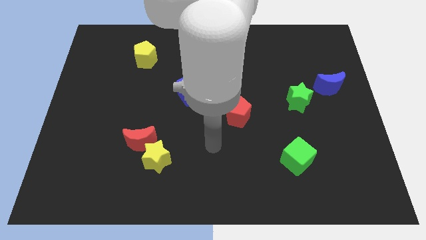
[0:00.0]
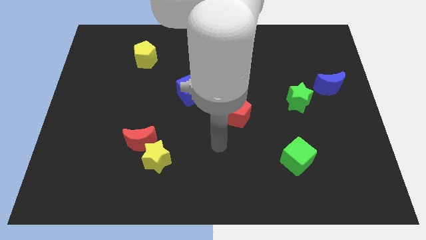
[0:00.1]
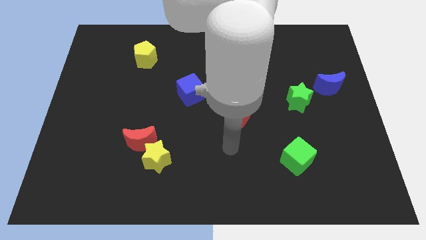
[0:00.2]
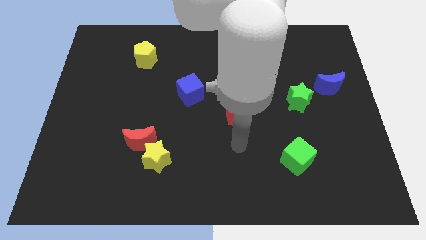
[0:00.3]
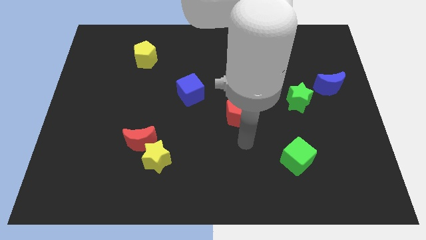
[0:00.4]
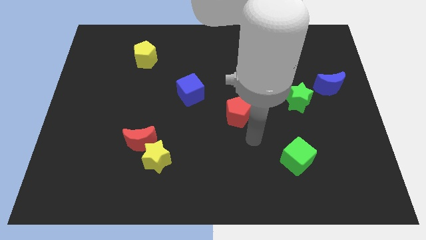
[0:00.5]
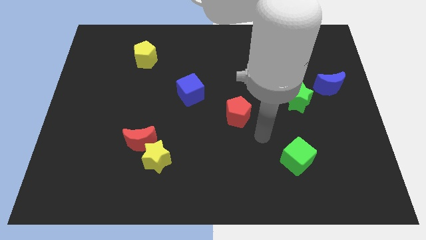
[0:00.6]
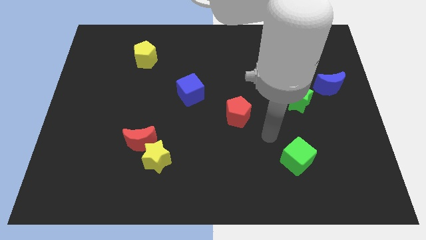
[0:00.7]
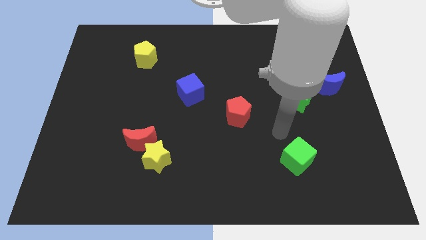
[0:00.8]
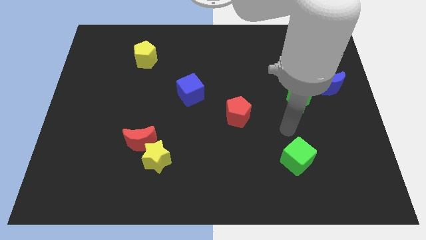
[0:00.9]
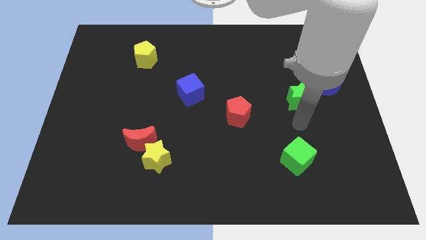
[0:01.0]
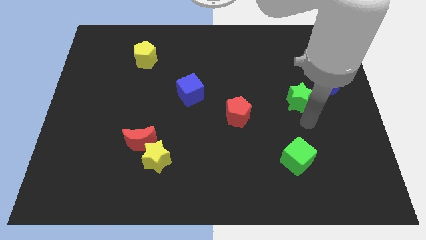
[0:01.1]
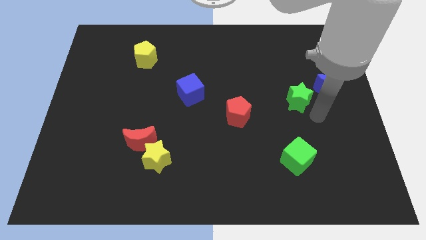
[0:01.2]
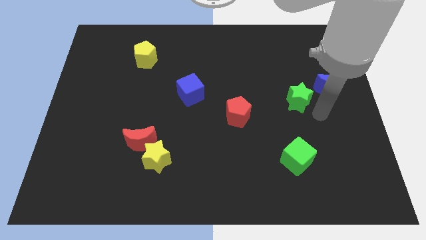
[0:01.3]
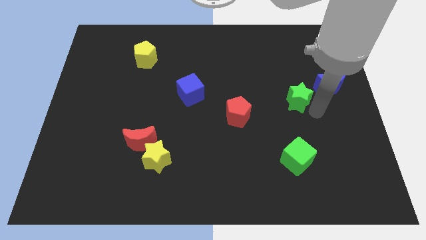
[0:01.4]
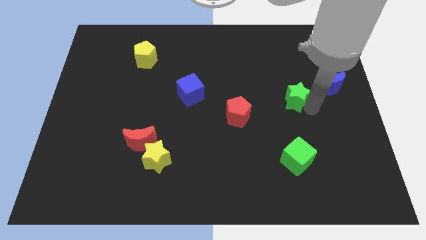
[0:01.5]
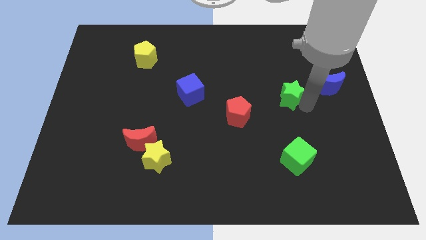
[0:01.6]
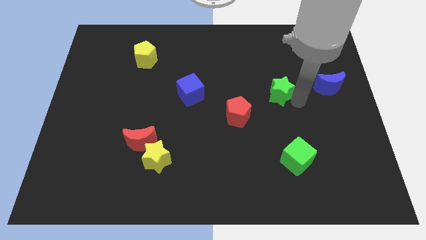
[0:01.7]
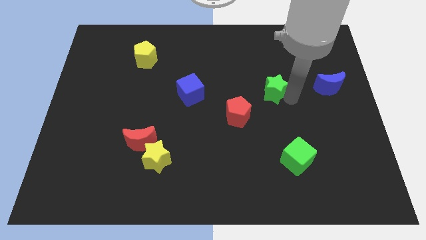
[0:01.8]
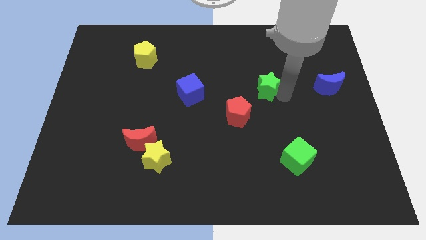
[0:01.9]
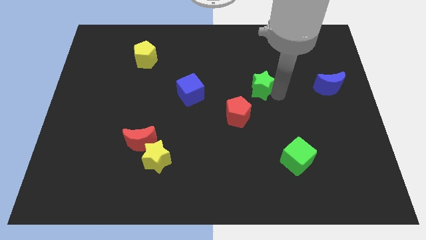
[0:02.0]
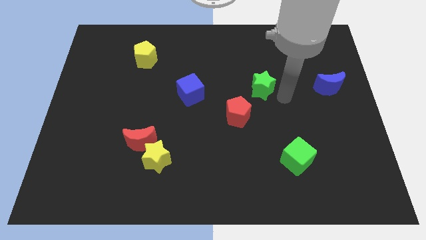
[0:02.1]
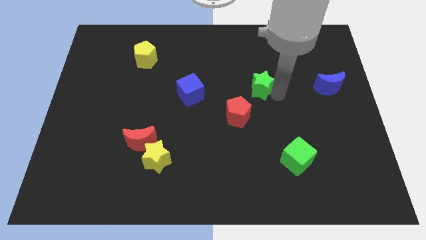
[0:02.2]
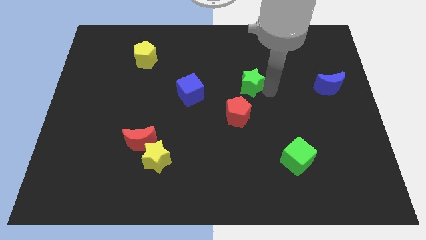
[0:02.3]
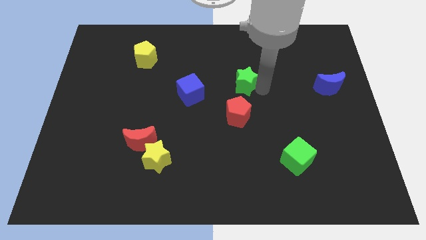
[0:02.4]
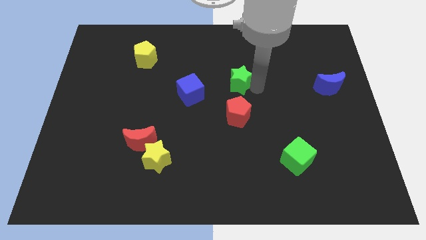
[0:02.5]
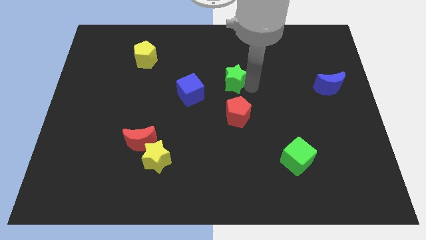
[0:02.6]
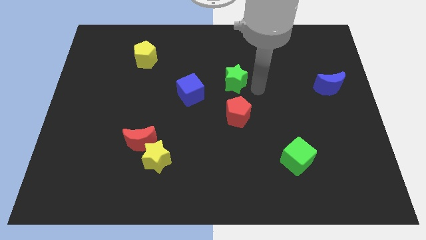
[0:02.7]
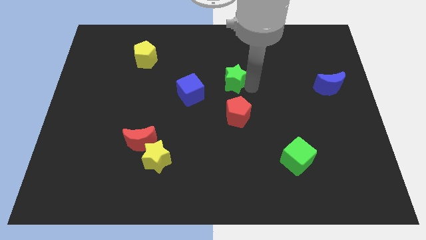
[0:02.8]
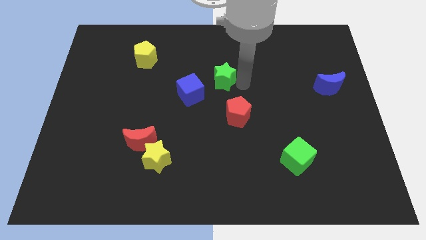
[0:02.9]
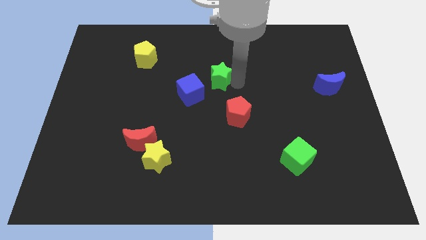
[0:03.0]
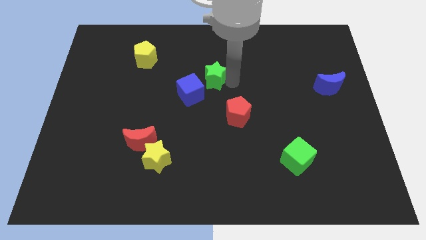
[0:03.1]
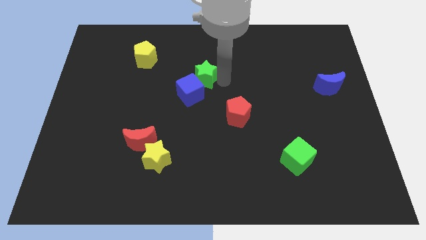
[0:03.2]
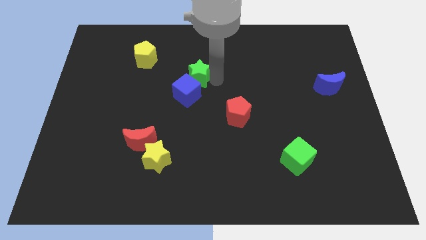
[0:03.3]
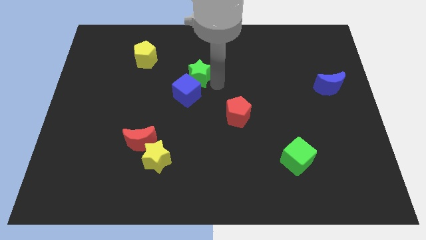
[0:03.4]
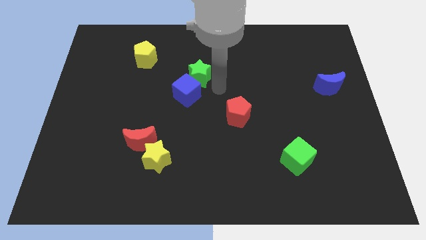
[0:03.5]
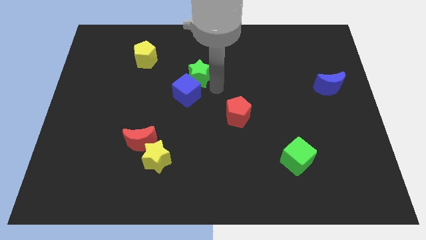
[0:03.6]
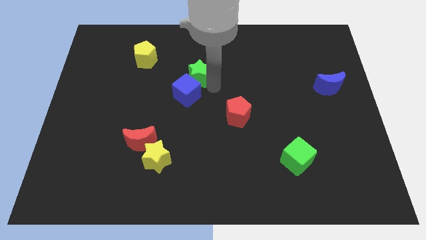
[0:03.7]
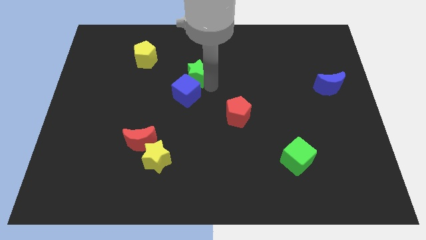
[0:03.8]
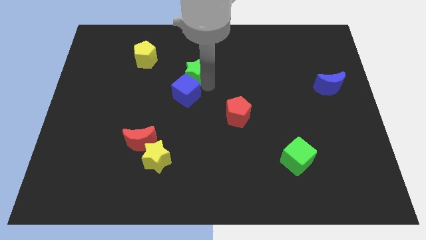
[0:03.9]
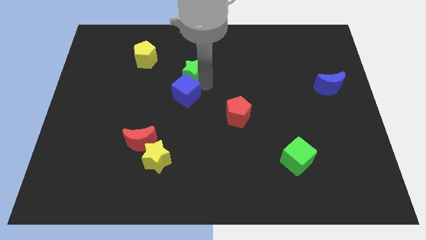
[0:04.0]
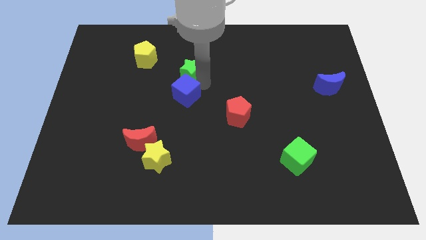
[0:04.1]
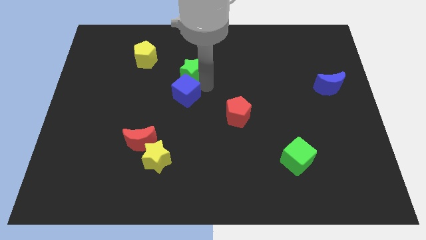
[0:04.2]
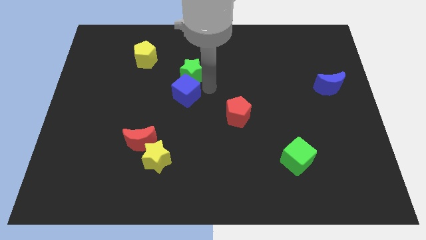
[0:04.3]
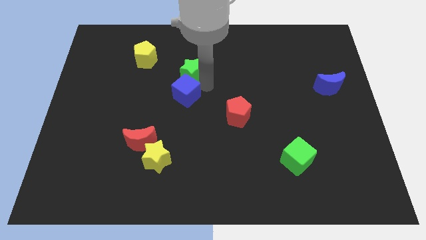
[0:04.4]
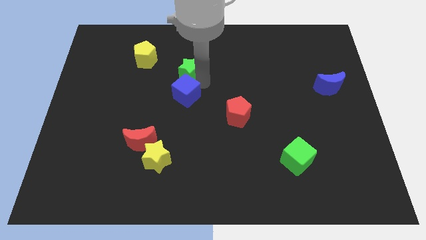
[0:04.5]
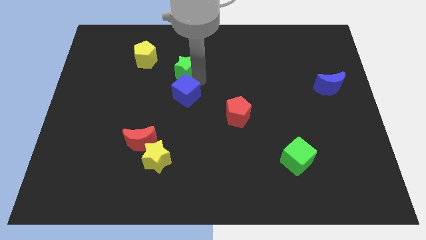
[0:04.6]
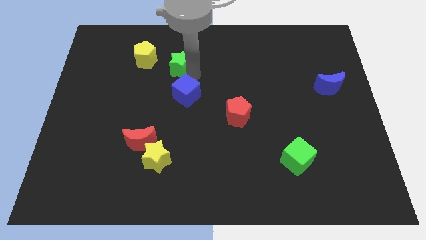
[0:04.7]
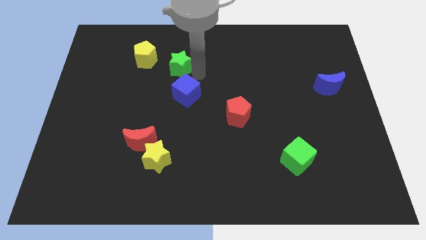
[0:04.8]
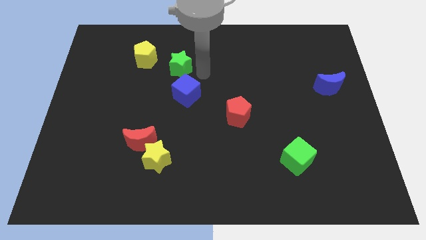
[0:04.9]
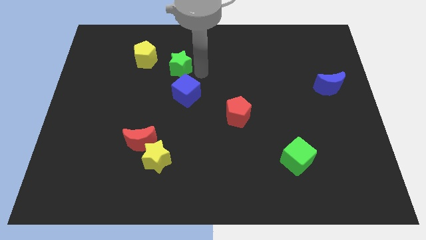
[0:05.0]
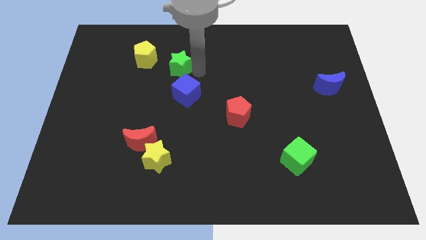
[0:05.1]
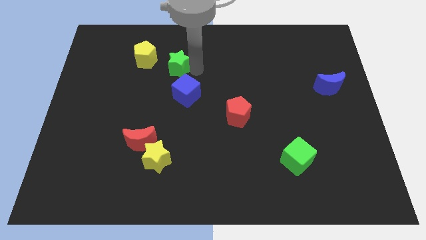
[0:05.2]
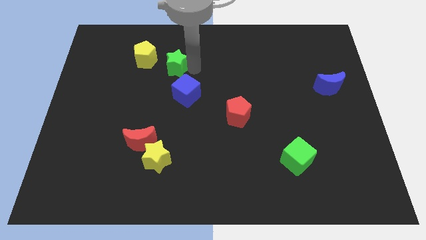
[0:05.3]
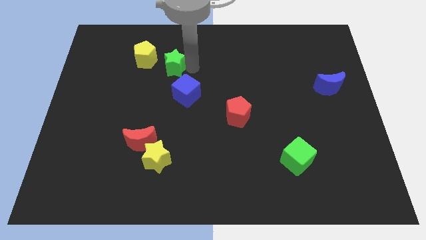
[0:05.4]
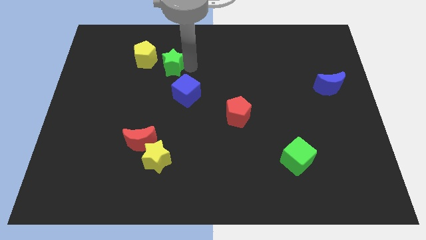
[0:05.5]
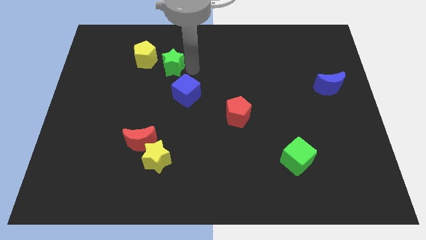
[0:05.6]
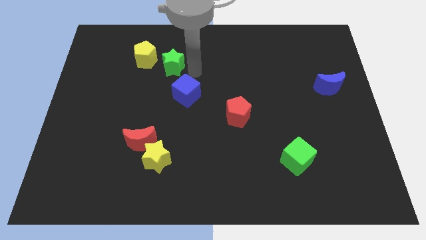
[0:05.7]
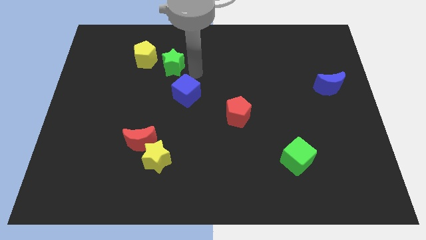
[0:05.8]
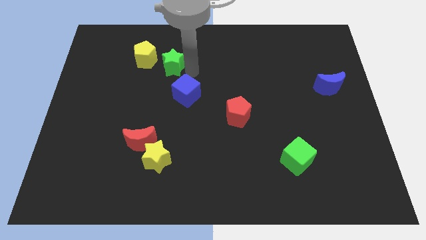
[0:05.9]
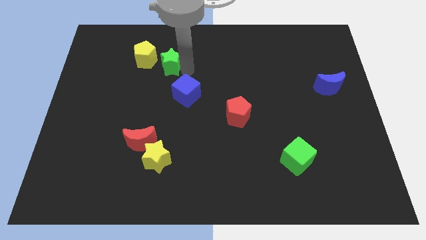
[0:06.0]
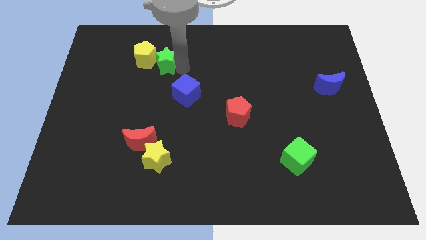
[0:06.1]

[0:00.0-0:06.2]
put the green star towards the yellow pentagon

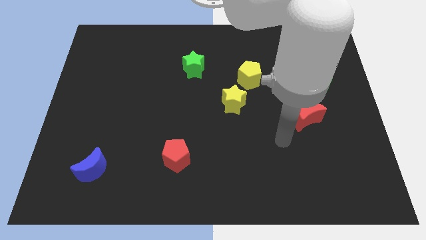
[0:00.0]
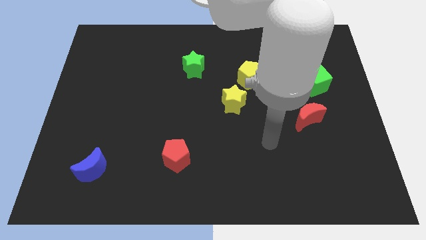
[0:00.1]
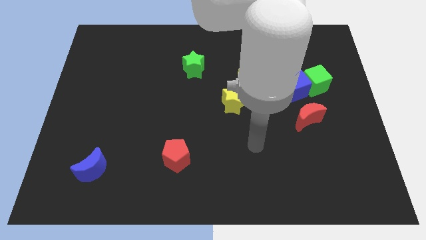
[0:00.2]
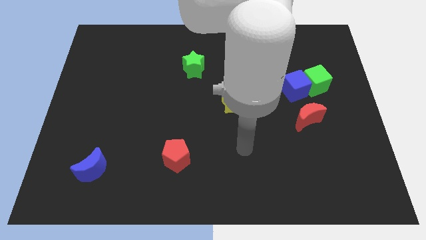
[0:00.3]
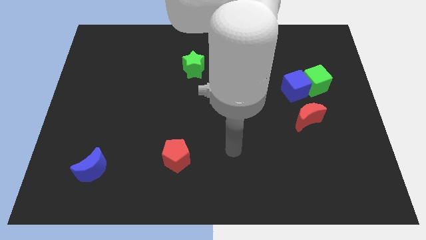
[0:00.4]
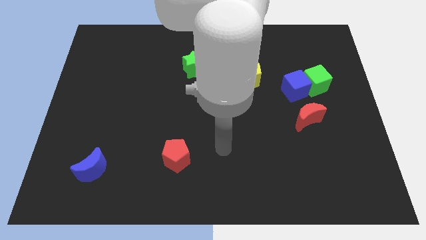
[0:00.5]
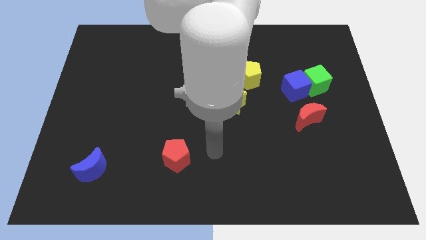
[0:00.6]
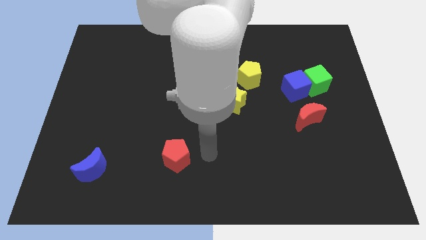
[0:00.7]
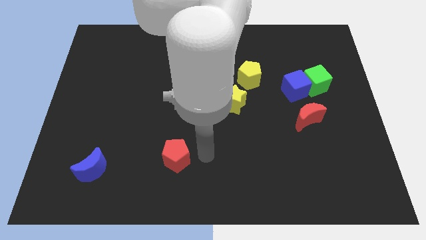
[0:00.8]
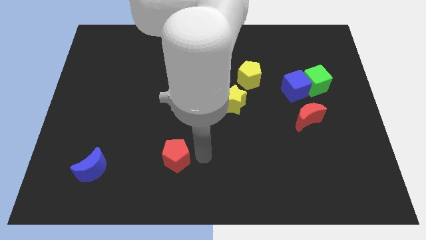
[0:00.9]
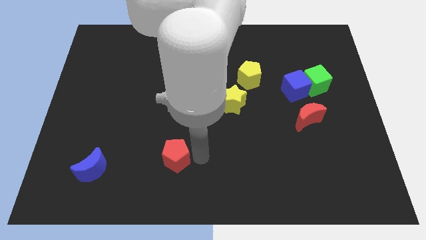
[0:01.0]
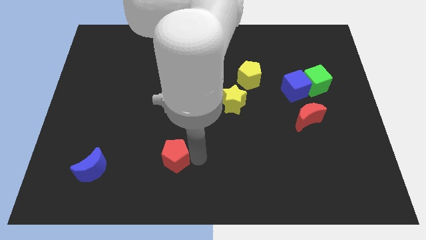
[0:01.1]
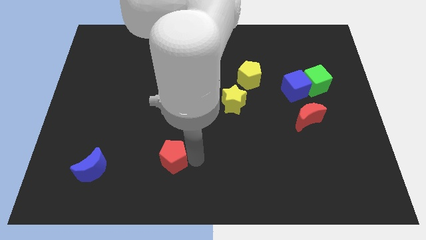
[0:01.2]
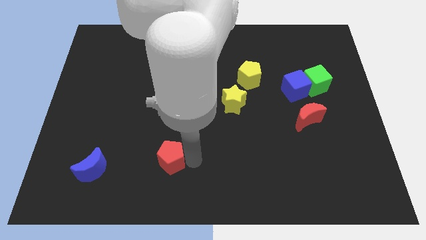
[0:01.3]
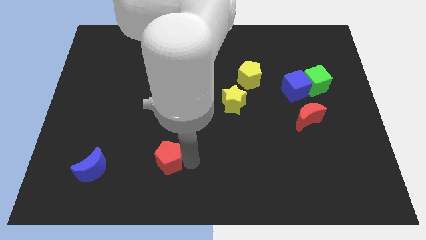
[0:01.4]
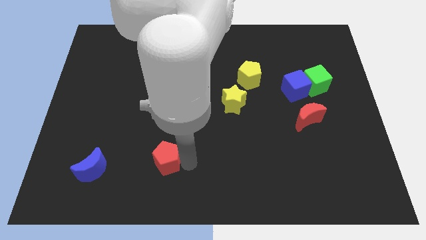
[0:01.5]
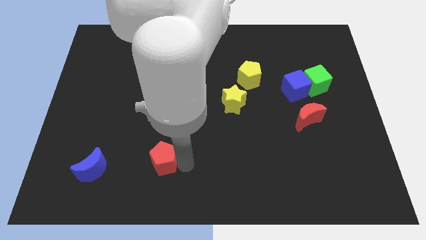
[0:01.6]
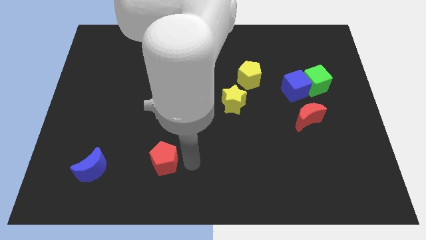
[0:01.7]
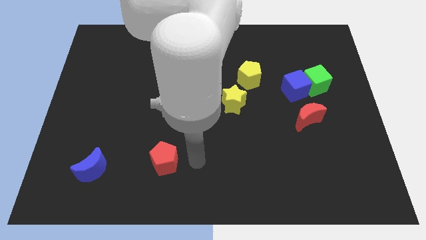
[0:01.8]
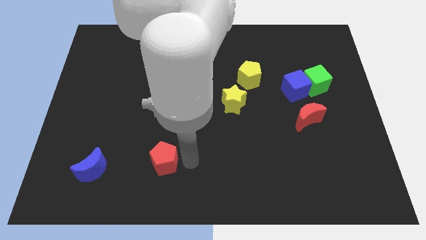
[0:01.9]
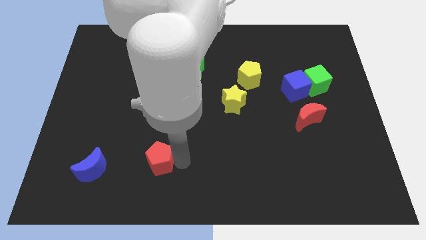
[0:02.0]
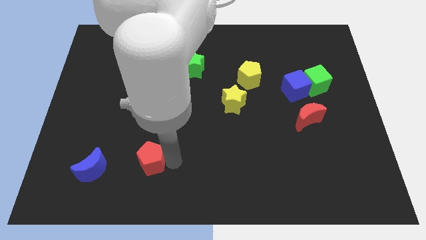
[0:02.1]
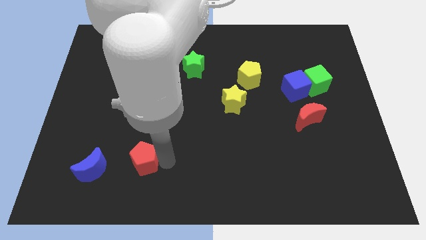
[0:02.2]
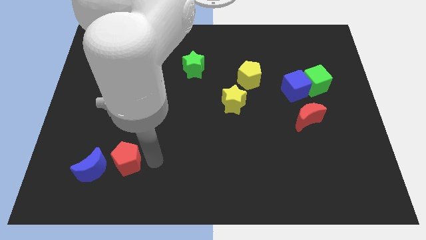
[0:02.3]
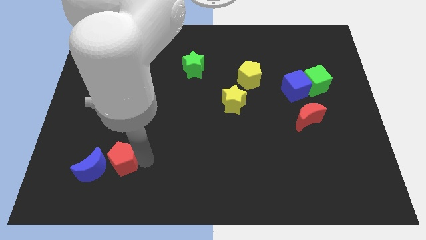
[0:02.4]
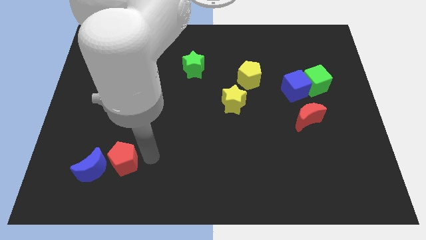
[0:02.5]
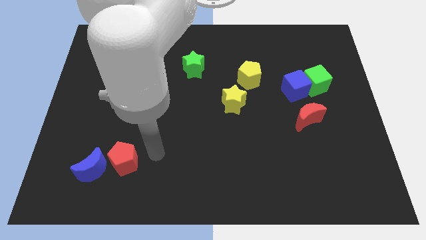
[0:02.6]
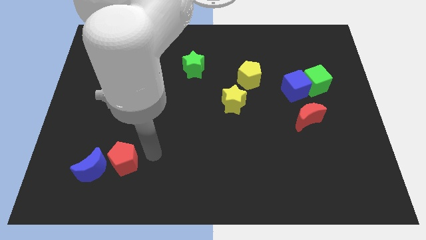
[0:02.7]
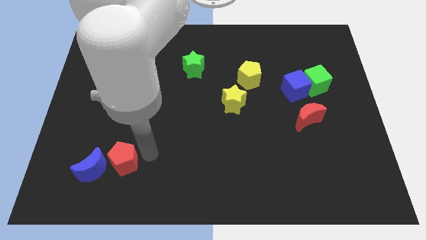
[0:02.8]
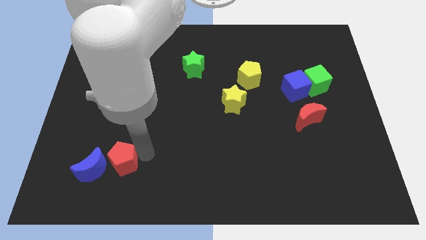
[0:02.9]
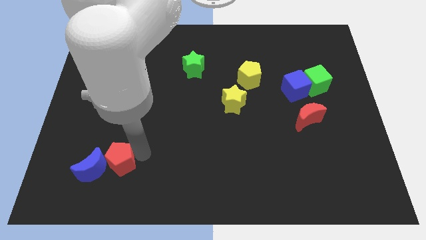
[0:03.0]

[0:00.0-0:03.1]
slide the red pentagon next to the blue moon
